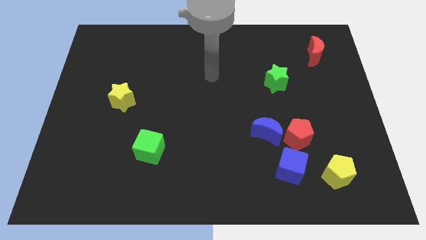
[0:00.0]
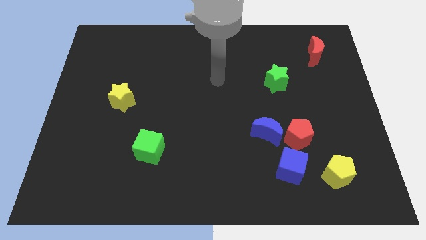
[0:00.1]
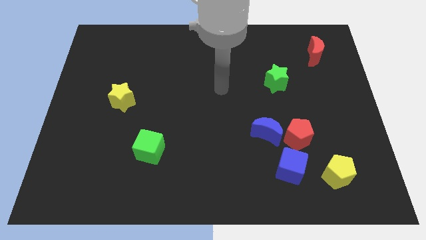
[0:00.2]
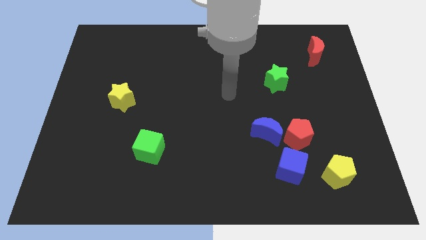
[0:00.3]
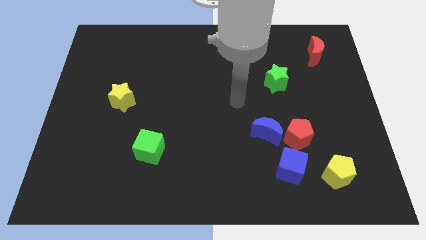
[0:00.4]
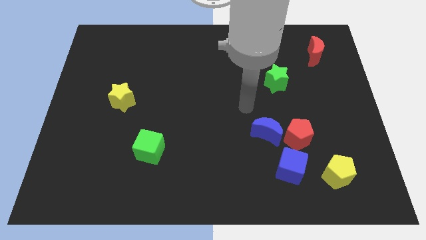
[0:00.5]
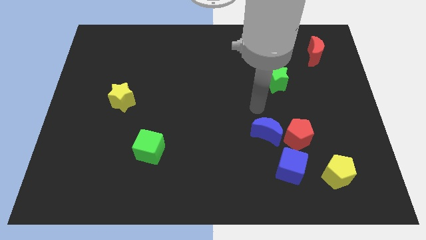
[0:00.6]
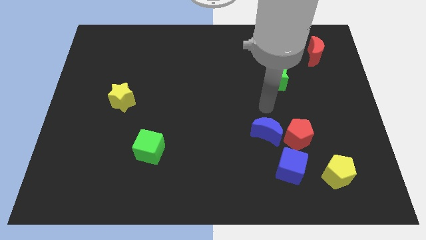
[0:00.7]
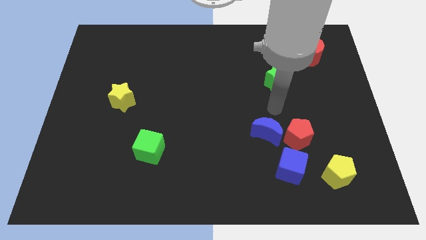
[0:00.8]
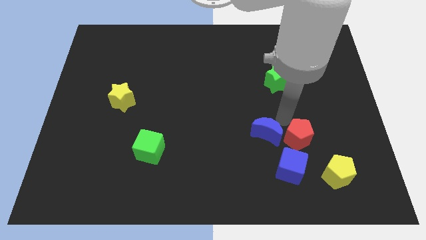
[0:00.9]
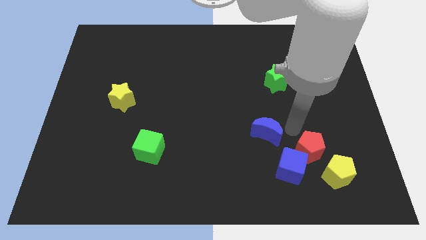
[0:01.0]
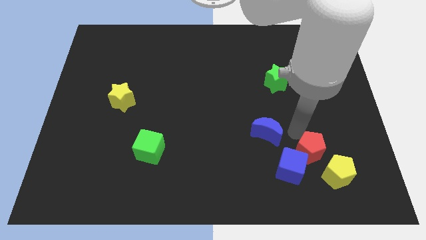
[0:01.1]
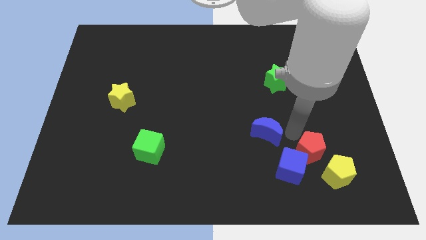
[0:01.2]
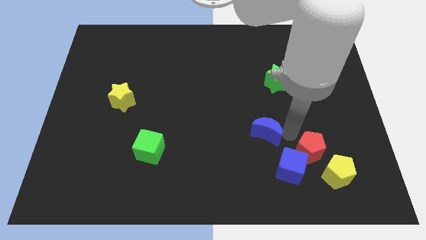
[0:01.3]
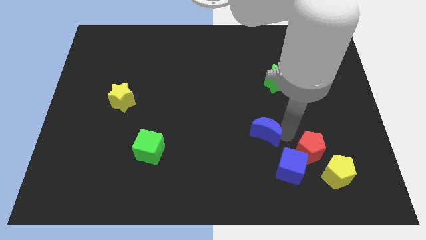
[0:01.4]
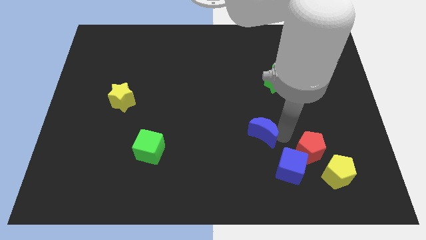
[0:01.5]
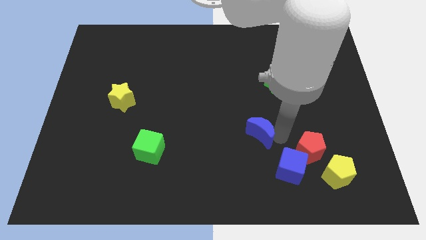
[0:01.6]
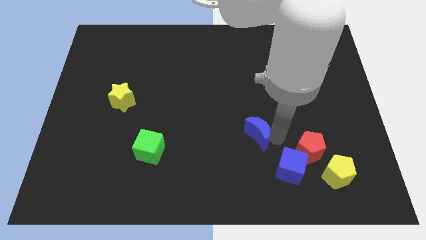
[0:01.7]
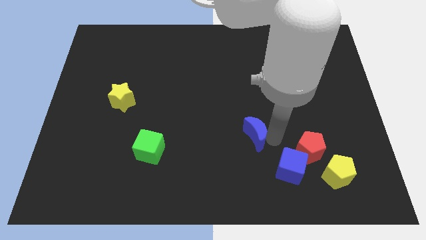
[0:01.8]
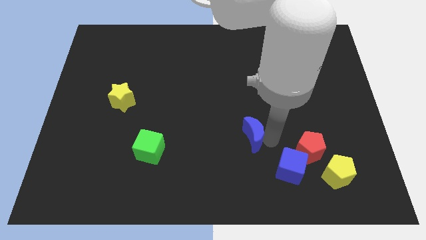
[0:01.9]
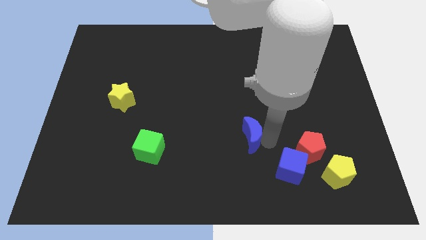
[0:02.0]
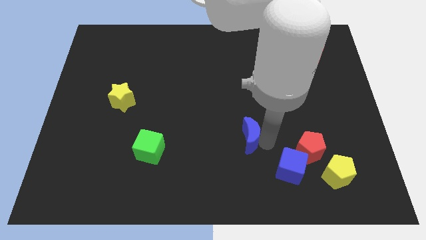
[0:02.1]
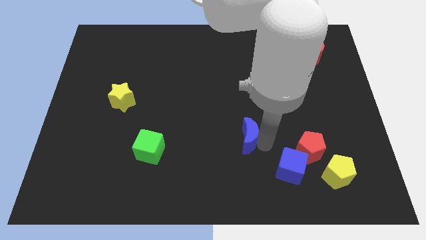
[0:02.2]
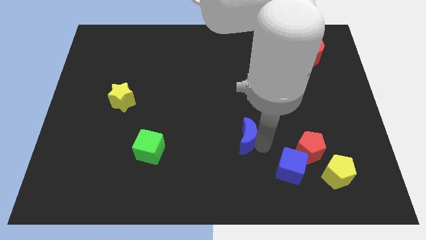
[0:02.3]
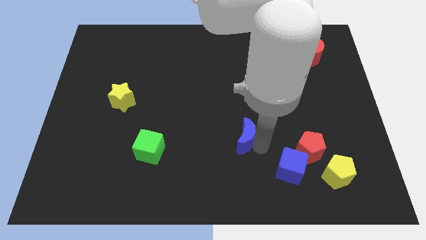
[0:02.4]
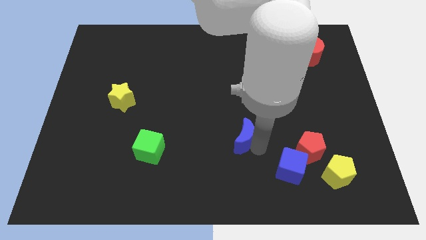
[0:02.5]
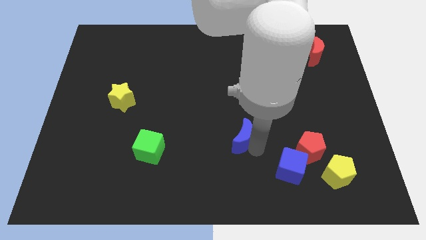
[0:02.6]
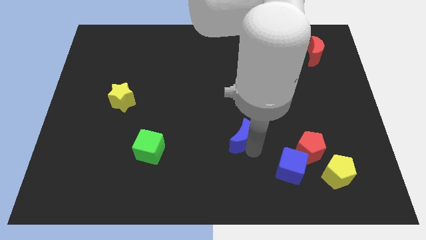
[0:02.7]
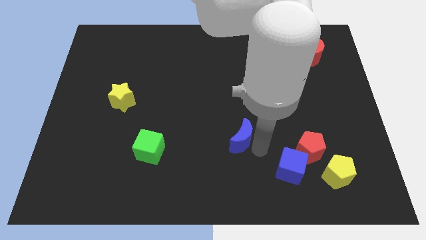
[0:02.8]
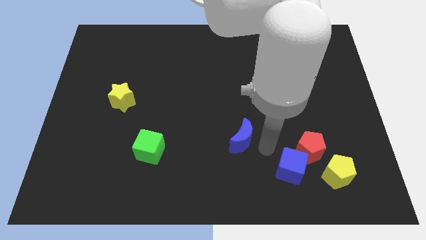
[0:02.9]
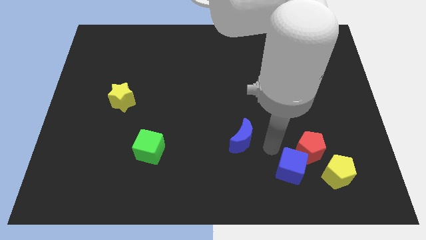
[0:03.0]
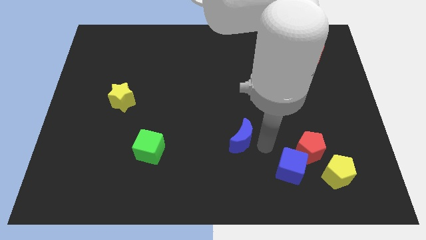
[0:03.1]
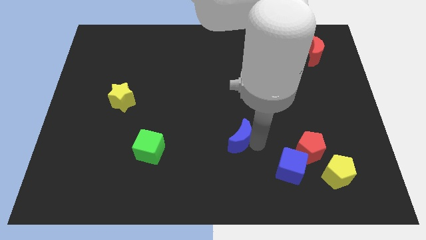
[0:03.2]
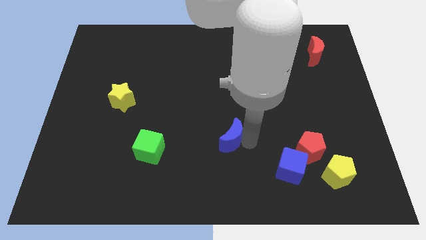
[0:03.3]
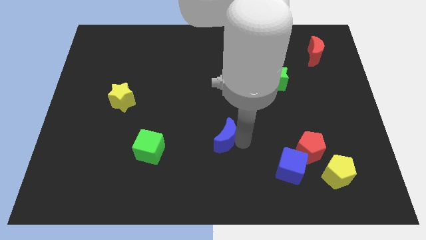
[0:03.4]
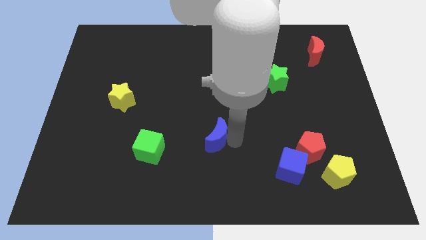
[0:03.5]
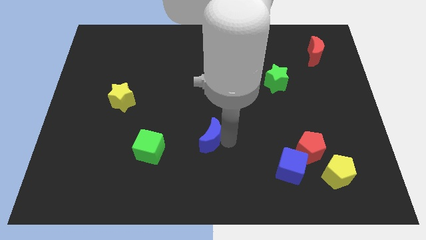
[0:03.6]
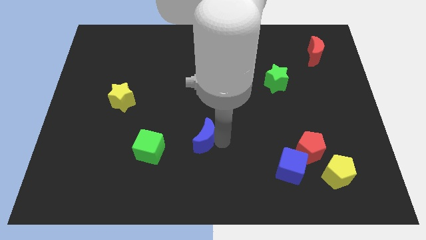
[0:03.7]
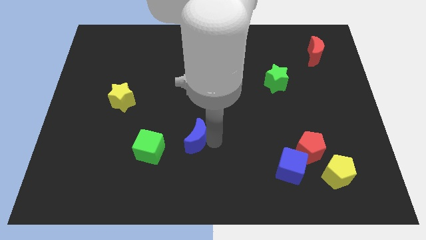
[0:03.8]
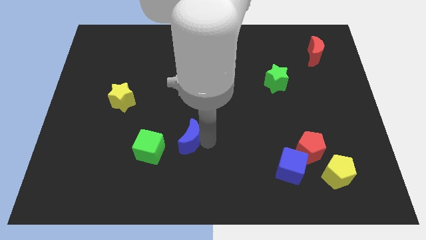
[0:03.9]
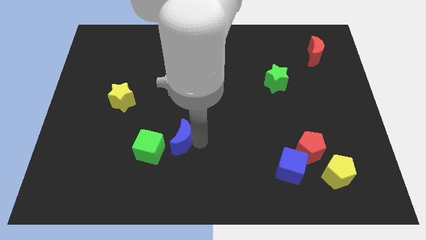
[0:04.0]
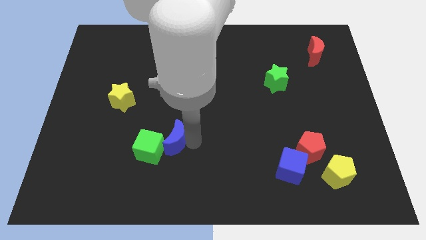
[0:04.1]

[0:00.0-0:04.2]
push the blue moon to the left

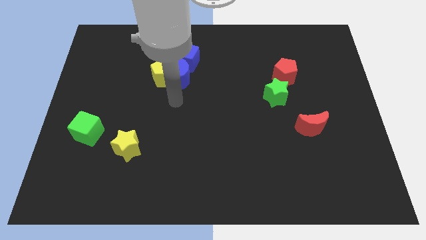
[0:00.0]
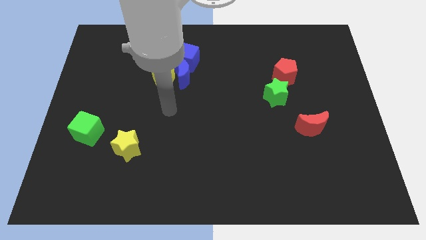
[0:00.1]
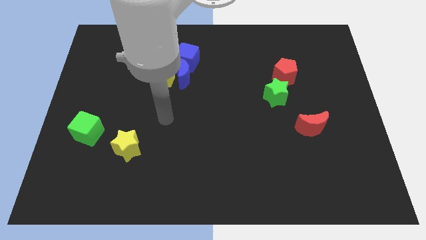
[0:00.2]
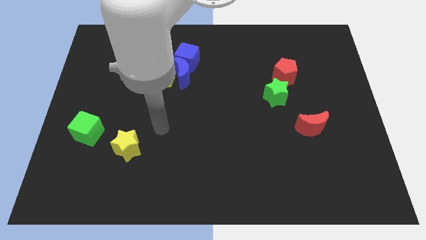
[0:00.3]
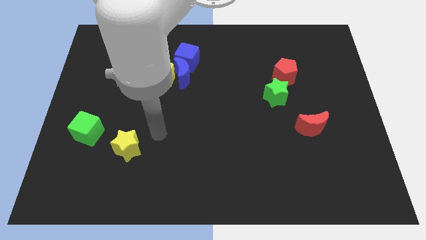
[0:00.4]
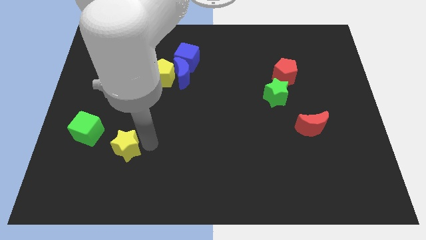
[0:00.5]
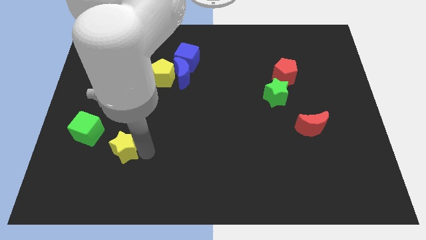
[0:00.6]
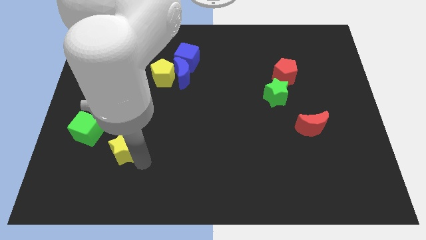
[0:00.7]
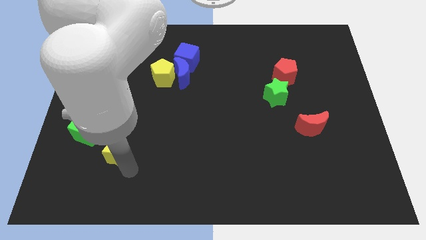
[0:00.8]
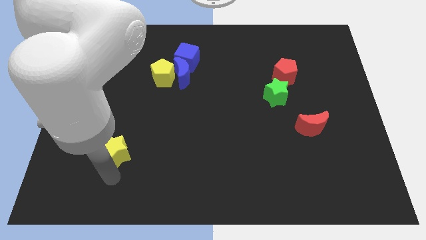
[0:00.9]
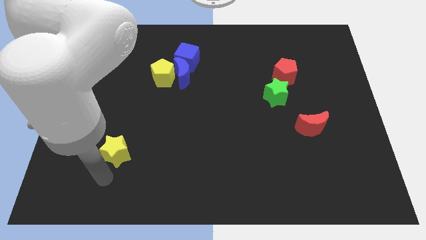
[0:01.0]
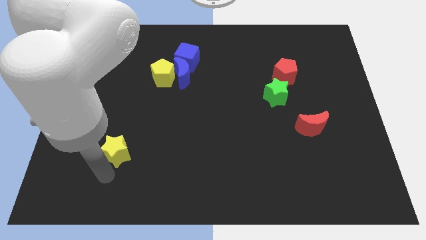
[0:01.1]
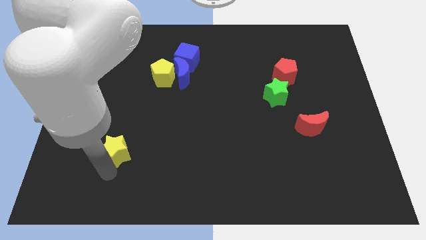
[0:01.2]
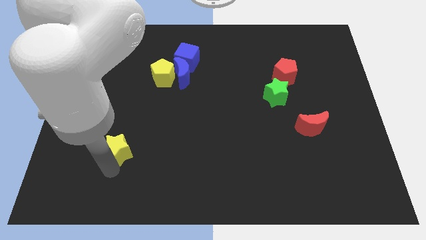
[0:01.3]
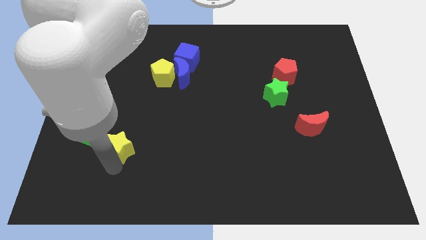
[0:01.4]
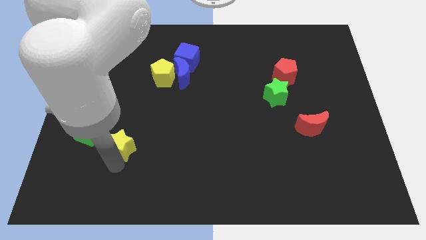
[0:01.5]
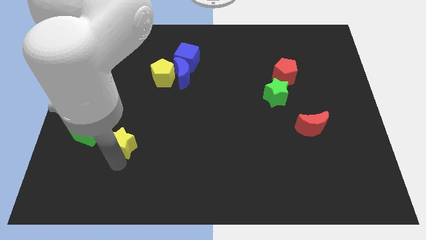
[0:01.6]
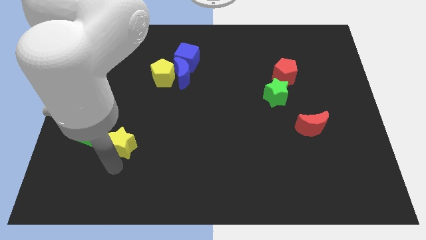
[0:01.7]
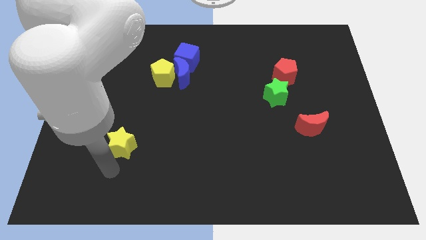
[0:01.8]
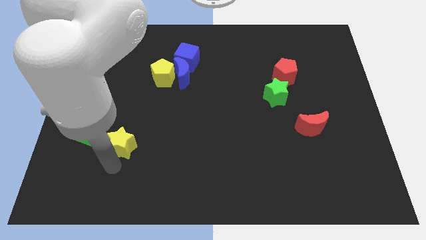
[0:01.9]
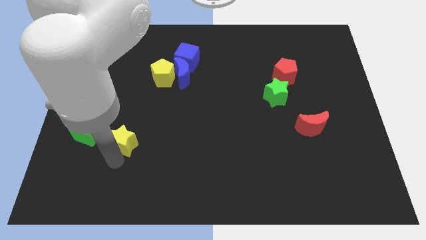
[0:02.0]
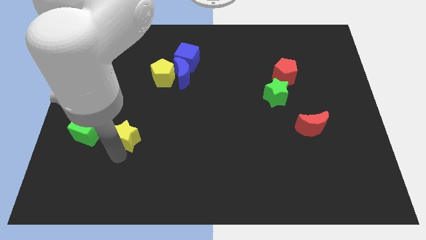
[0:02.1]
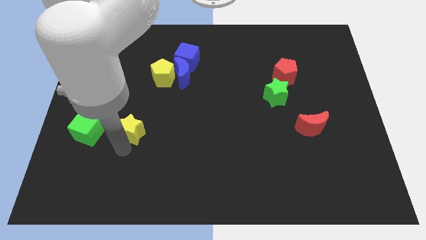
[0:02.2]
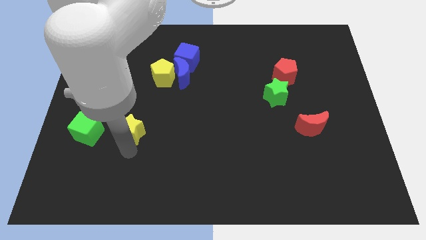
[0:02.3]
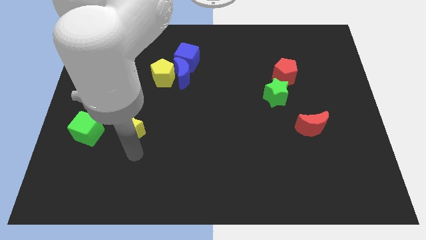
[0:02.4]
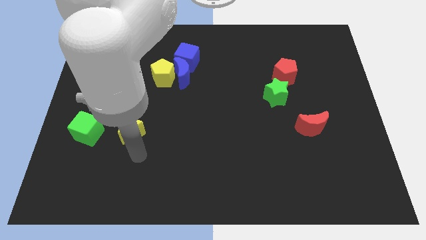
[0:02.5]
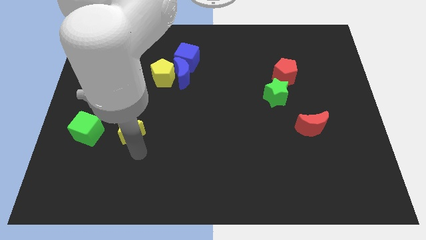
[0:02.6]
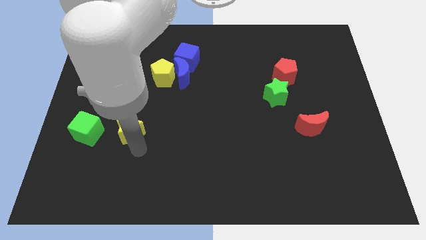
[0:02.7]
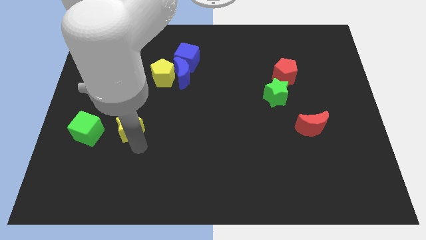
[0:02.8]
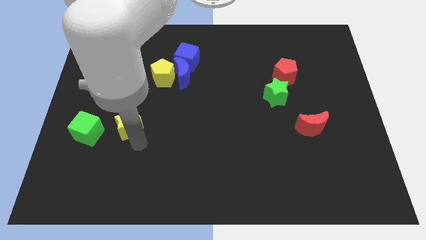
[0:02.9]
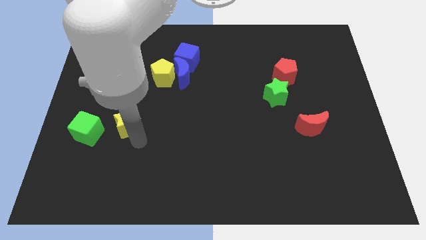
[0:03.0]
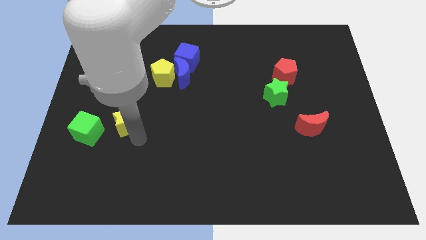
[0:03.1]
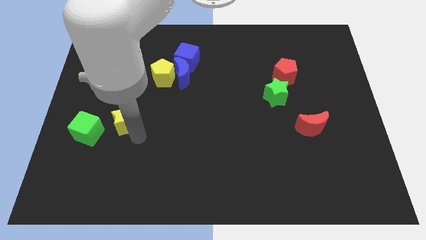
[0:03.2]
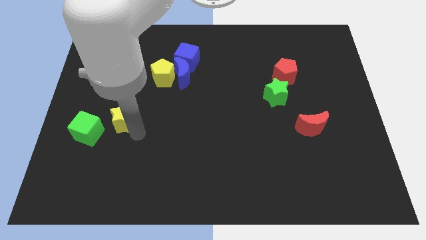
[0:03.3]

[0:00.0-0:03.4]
move the yellow star a bit up

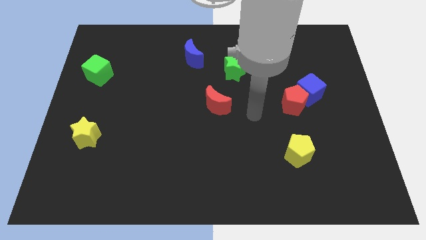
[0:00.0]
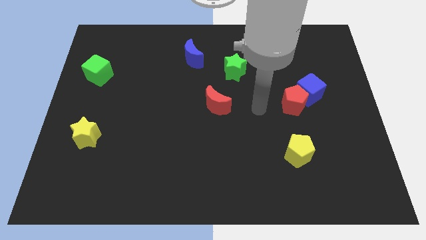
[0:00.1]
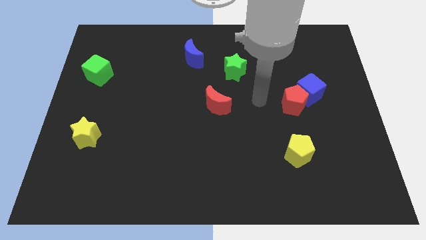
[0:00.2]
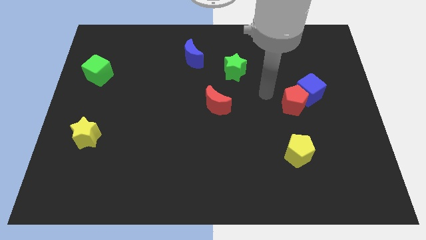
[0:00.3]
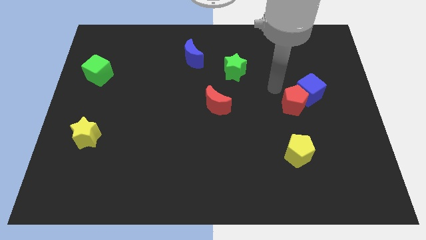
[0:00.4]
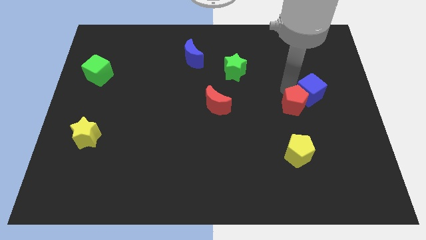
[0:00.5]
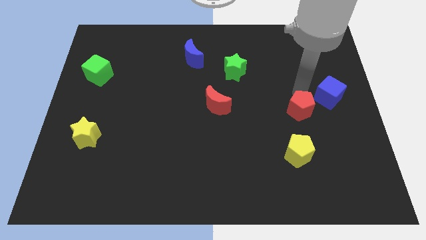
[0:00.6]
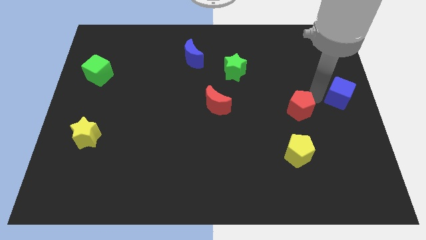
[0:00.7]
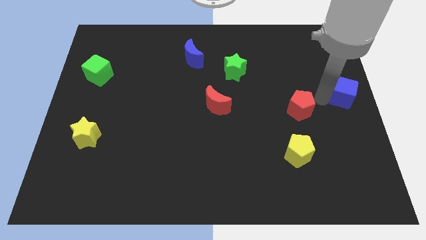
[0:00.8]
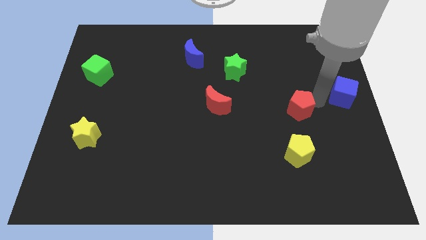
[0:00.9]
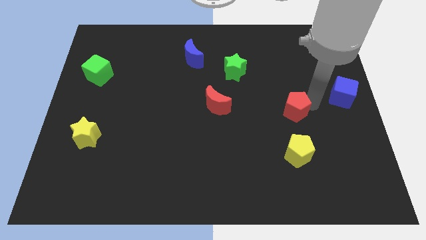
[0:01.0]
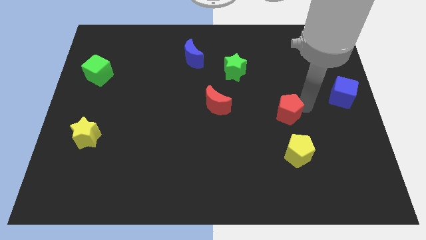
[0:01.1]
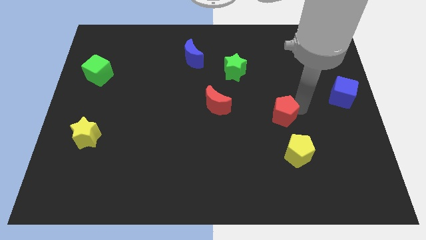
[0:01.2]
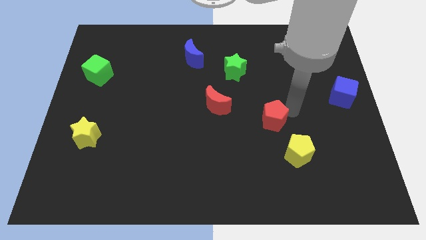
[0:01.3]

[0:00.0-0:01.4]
move the red pentagon a little down and left diagonally
